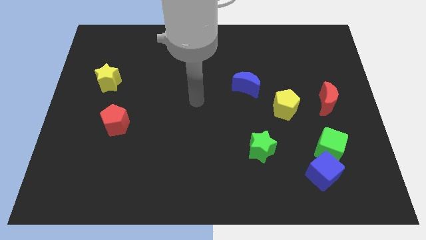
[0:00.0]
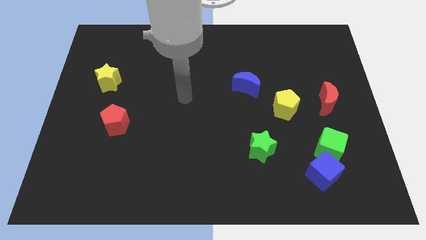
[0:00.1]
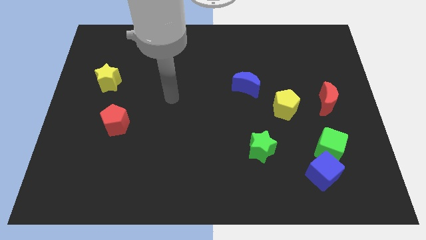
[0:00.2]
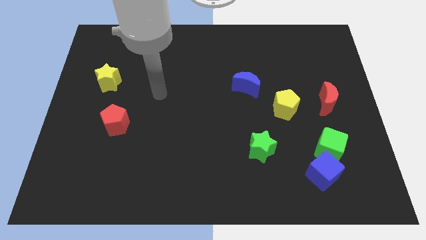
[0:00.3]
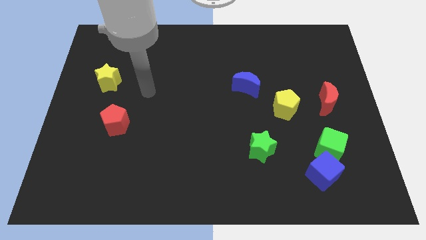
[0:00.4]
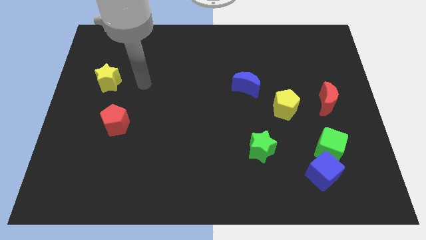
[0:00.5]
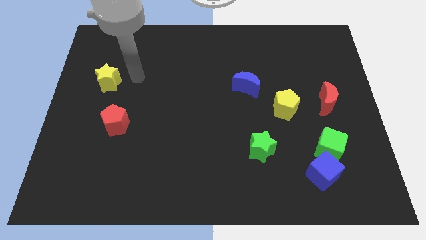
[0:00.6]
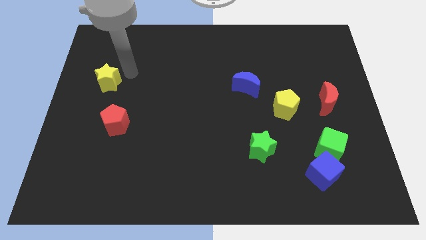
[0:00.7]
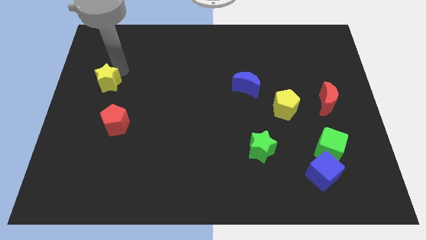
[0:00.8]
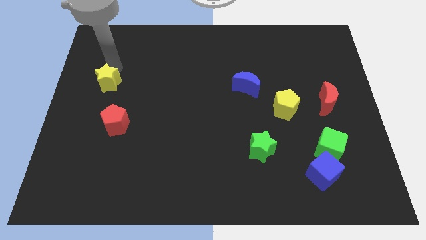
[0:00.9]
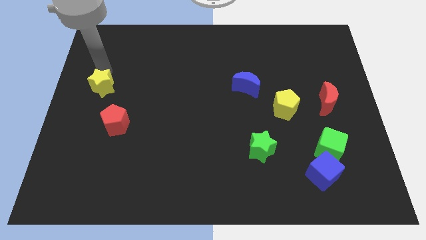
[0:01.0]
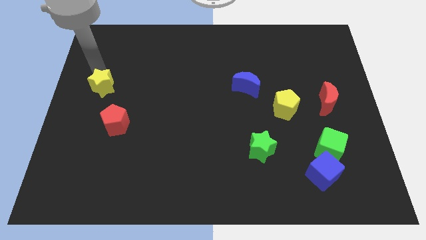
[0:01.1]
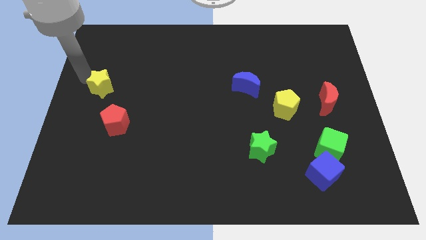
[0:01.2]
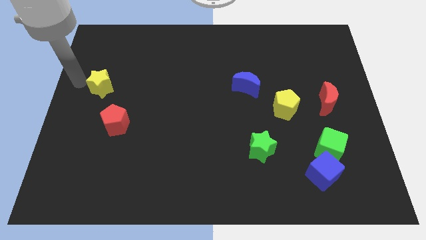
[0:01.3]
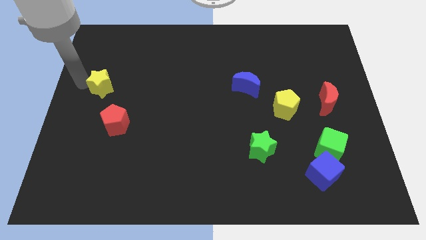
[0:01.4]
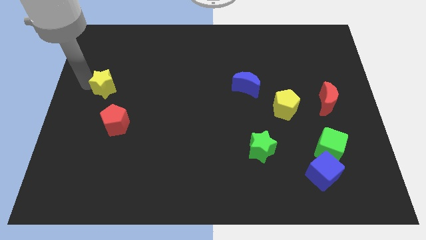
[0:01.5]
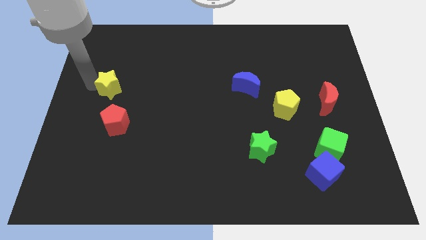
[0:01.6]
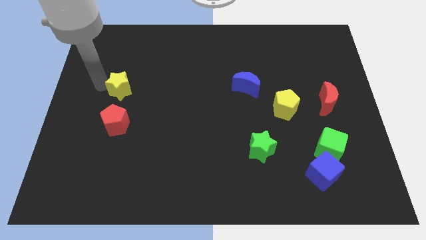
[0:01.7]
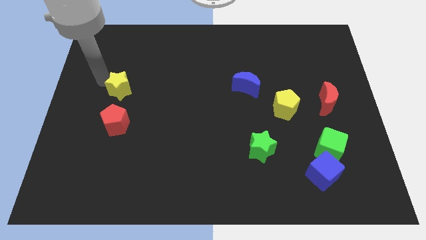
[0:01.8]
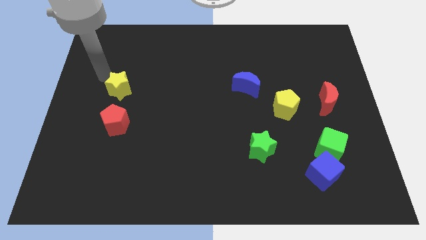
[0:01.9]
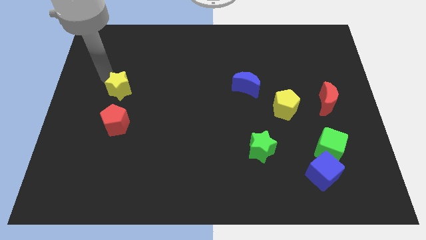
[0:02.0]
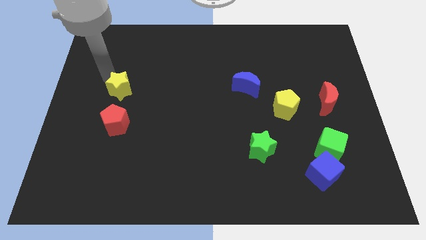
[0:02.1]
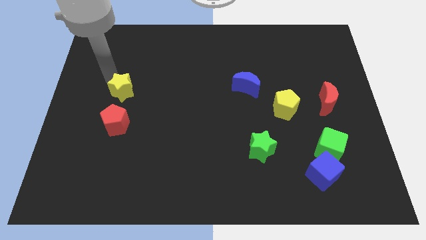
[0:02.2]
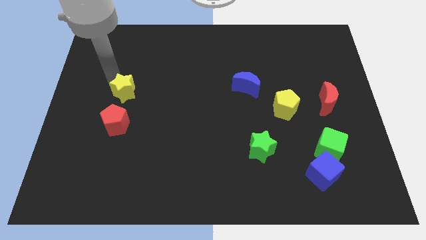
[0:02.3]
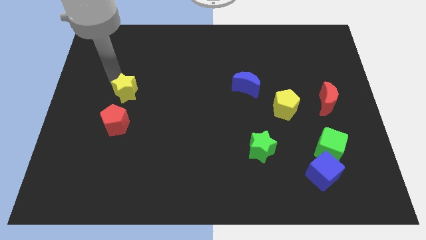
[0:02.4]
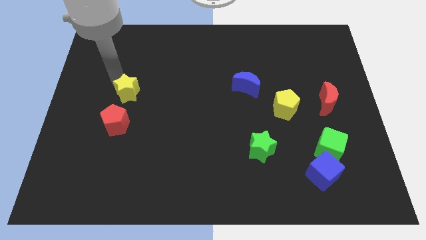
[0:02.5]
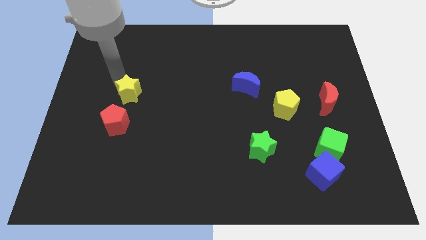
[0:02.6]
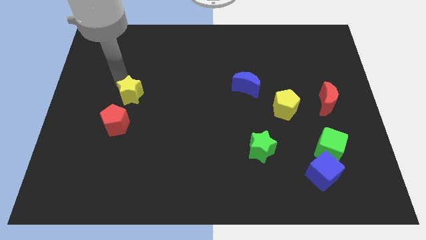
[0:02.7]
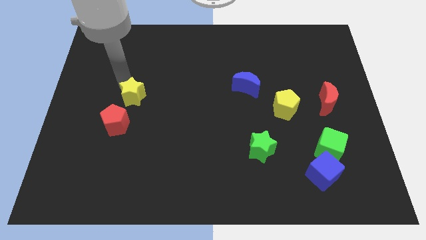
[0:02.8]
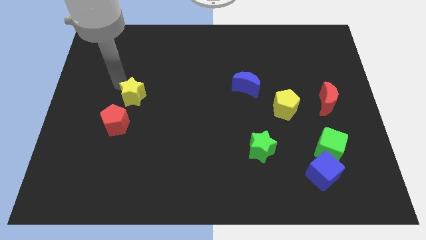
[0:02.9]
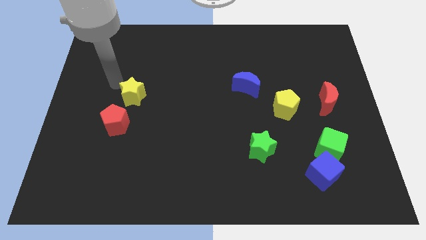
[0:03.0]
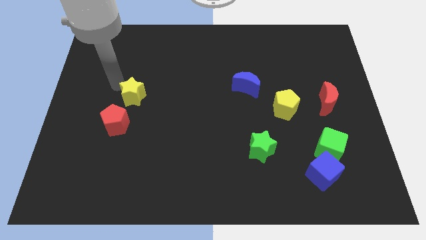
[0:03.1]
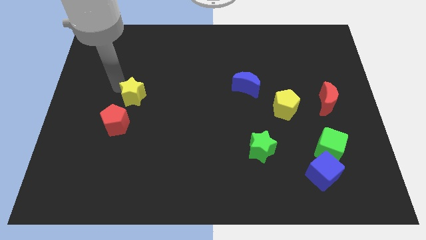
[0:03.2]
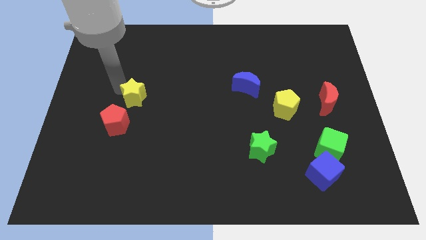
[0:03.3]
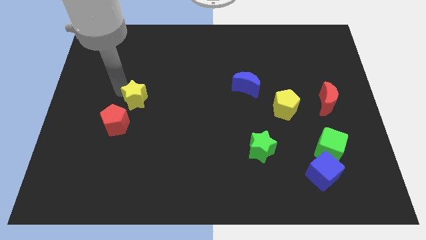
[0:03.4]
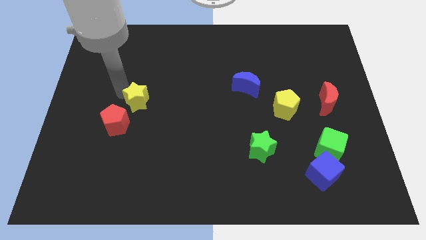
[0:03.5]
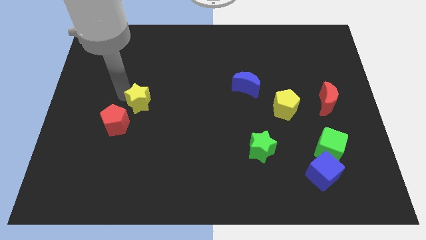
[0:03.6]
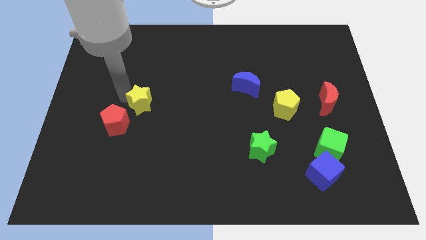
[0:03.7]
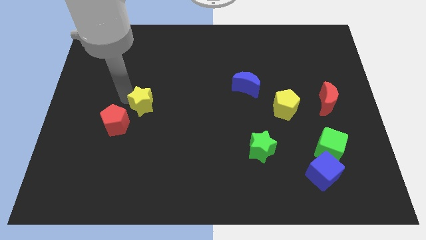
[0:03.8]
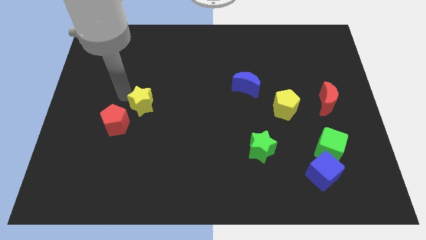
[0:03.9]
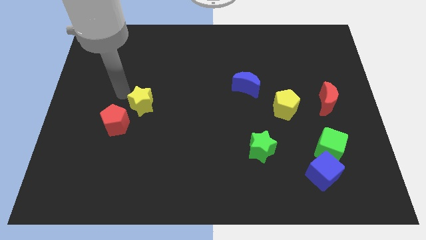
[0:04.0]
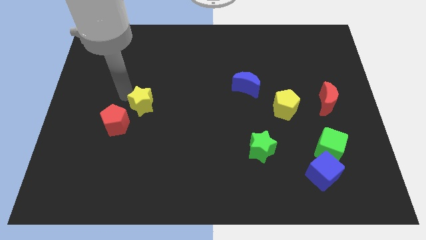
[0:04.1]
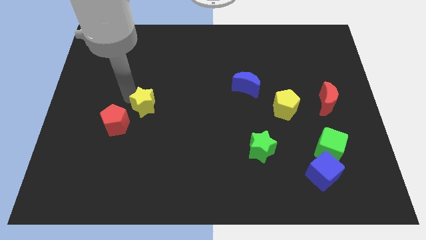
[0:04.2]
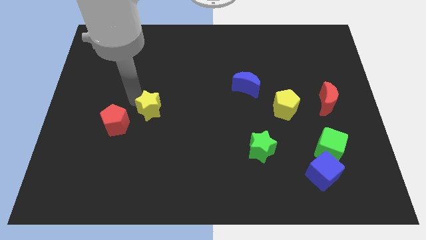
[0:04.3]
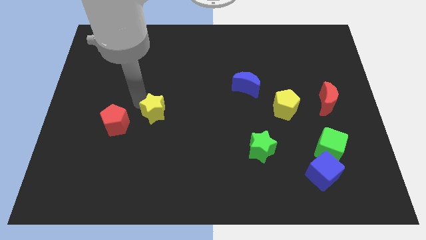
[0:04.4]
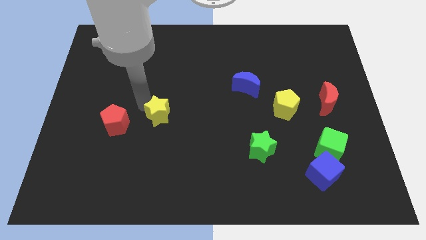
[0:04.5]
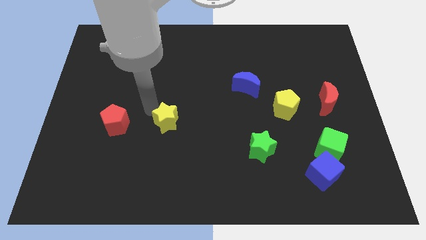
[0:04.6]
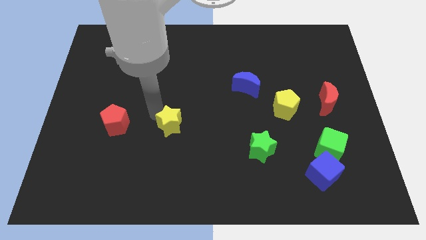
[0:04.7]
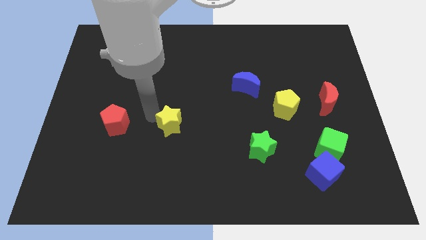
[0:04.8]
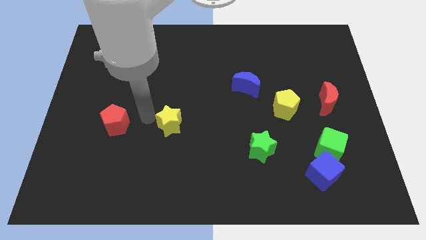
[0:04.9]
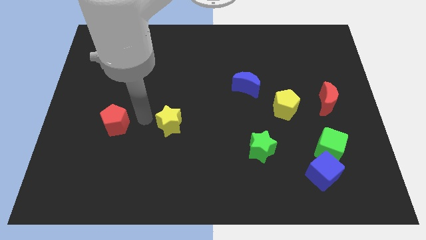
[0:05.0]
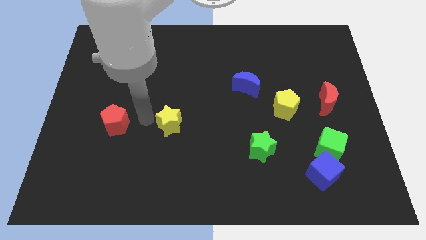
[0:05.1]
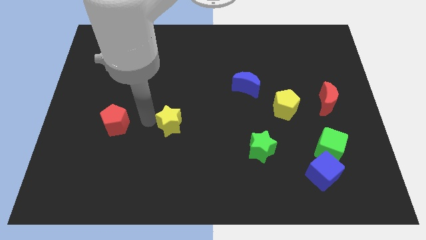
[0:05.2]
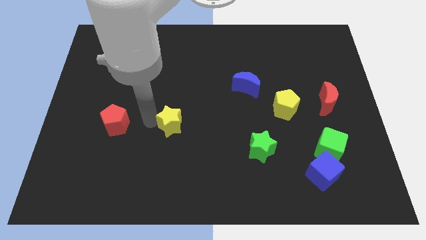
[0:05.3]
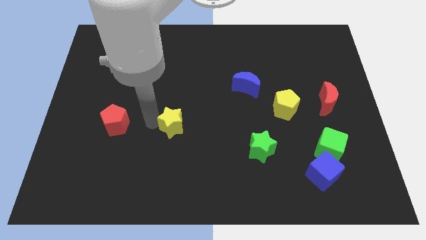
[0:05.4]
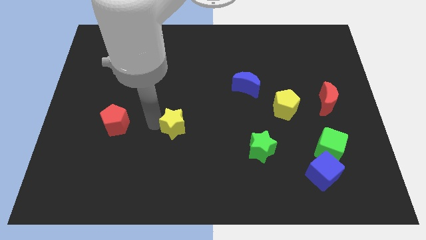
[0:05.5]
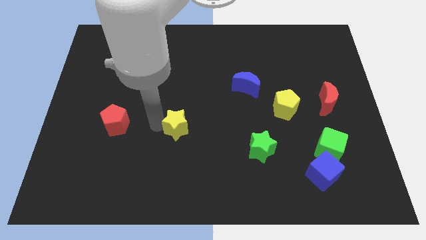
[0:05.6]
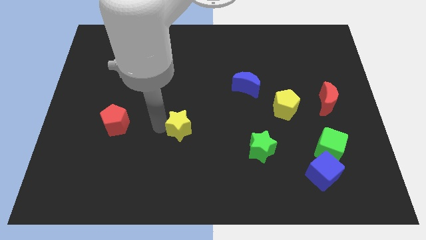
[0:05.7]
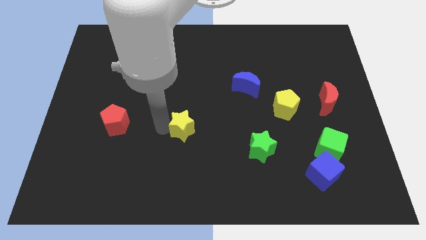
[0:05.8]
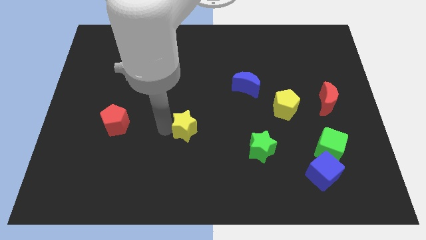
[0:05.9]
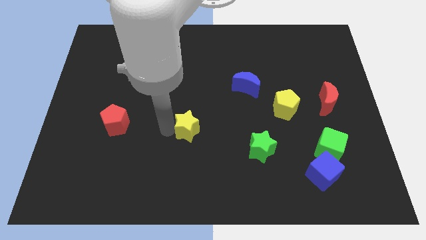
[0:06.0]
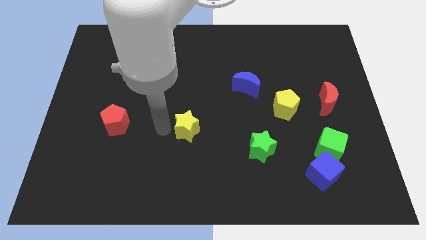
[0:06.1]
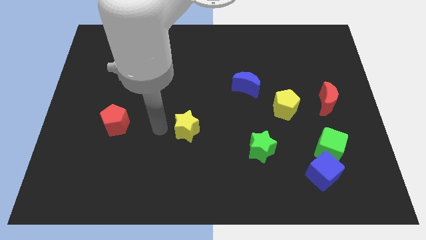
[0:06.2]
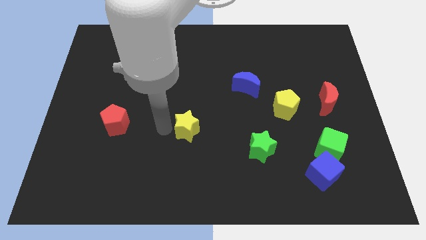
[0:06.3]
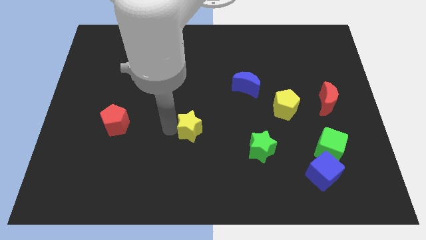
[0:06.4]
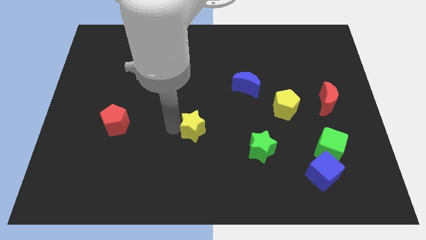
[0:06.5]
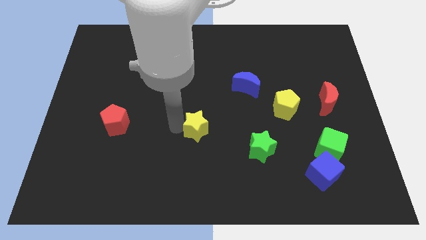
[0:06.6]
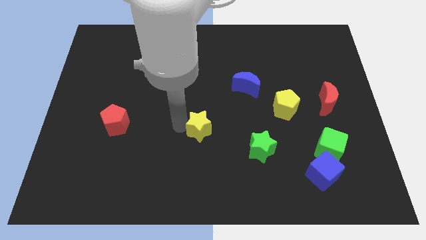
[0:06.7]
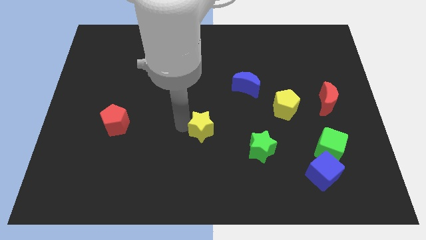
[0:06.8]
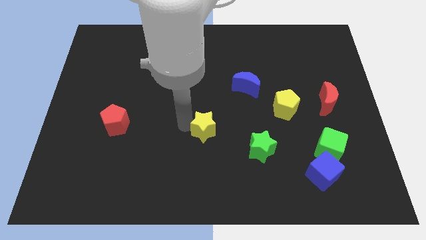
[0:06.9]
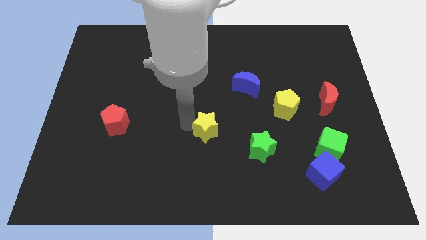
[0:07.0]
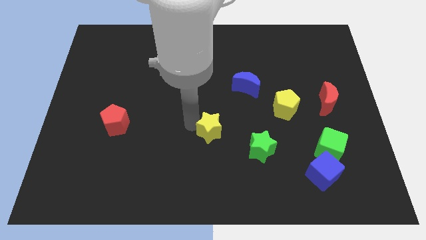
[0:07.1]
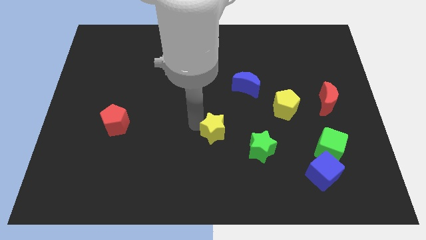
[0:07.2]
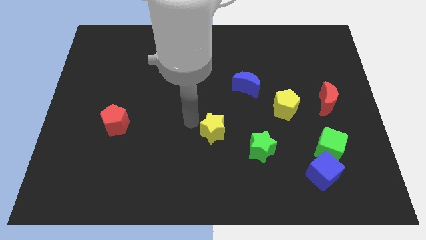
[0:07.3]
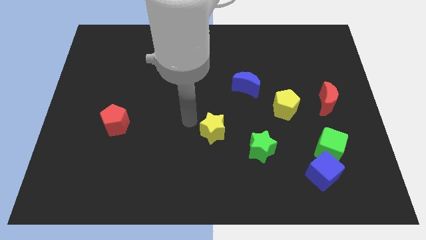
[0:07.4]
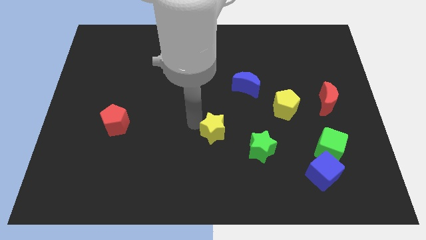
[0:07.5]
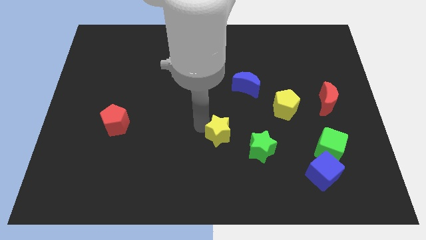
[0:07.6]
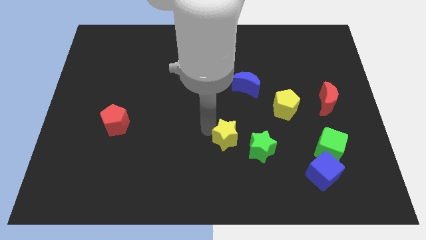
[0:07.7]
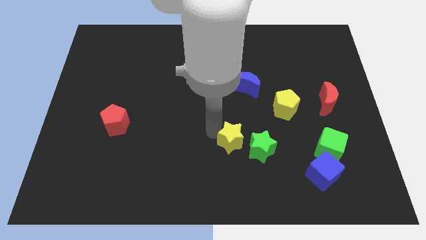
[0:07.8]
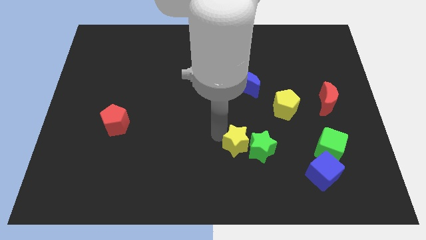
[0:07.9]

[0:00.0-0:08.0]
slide the yellow star to the green star
